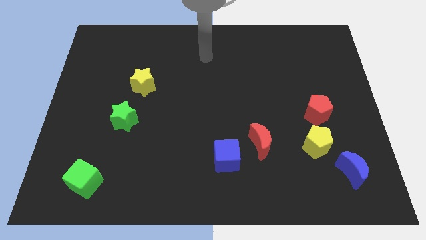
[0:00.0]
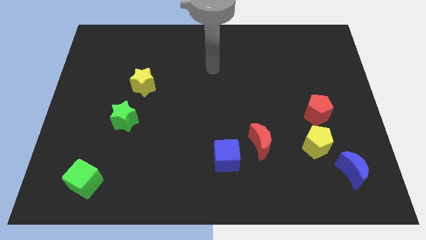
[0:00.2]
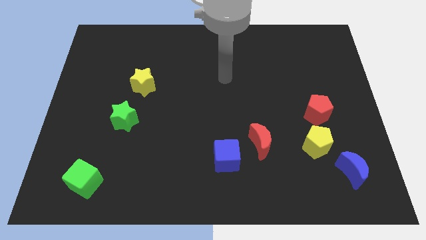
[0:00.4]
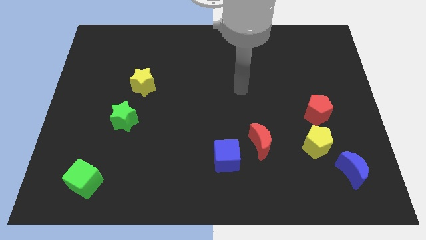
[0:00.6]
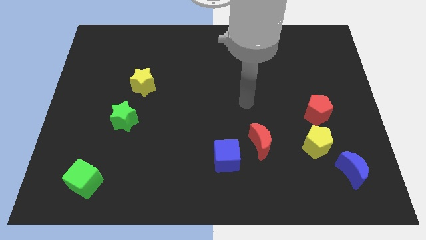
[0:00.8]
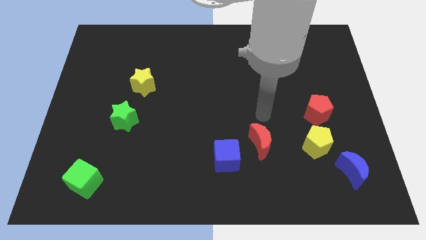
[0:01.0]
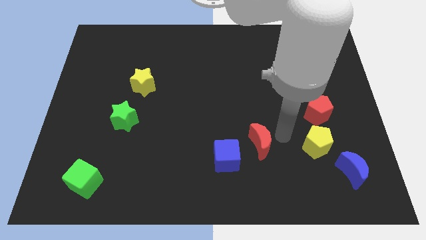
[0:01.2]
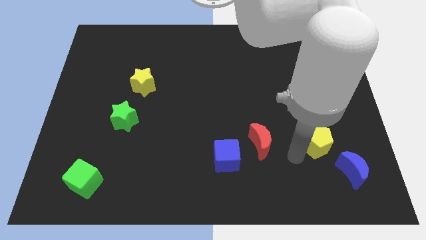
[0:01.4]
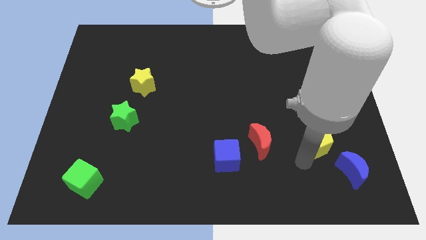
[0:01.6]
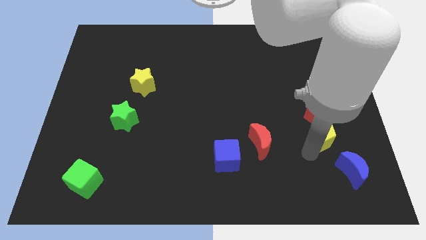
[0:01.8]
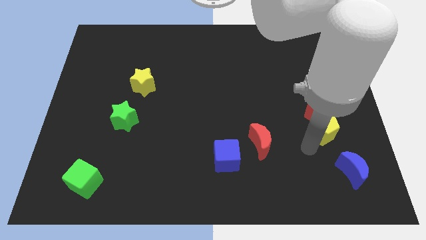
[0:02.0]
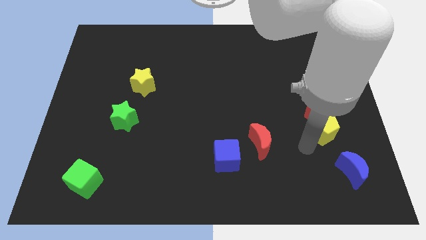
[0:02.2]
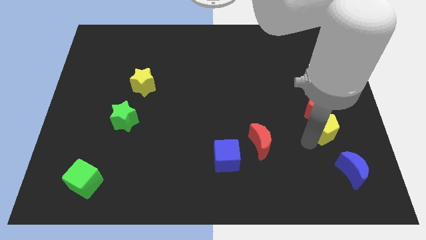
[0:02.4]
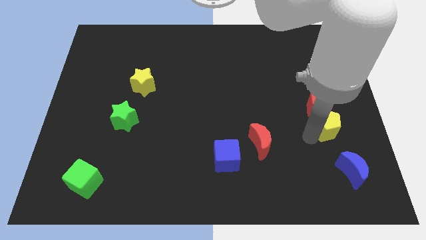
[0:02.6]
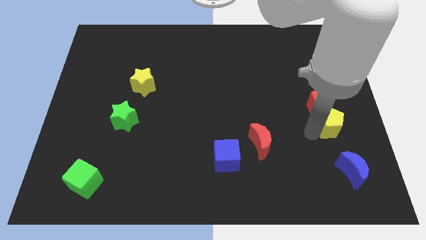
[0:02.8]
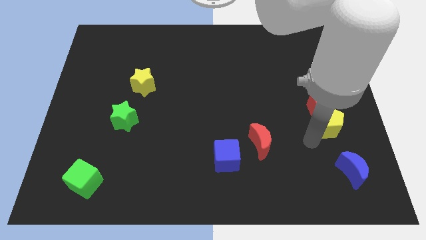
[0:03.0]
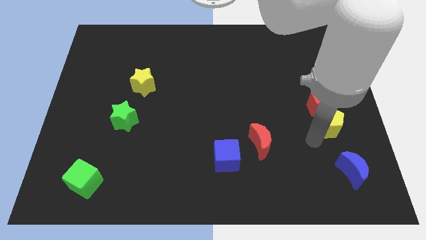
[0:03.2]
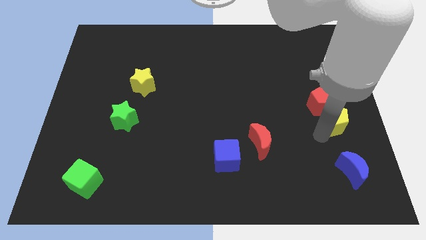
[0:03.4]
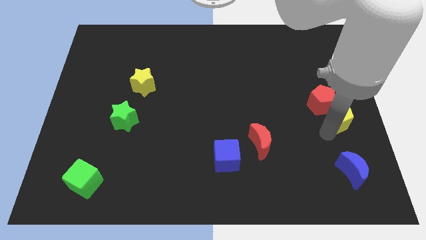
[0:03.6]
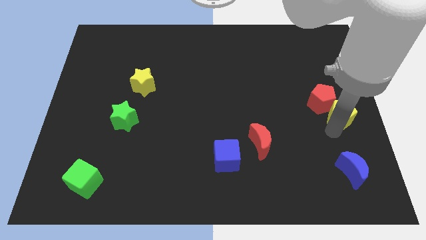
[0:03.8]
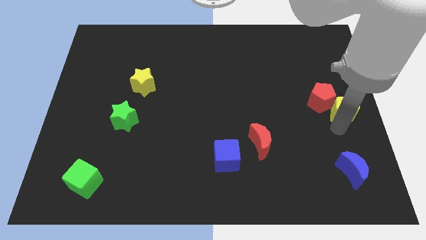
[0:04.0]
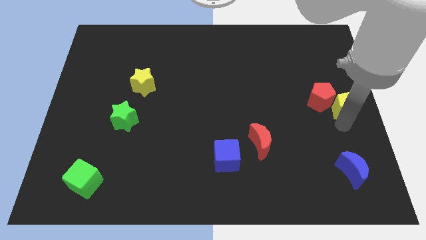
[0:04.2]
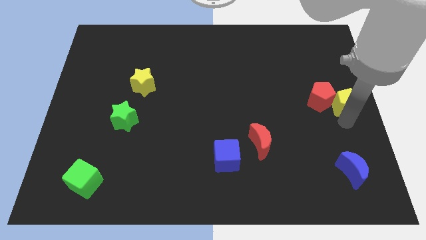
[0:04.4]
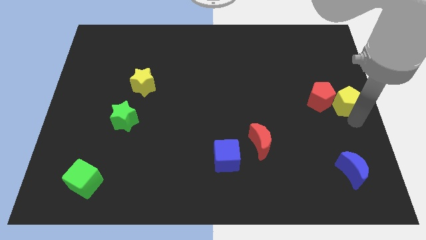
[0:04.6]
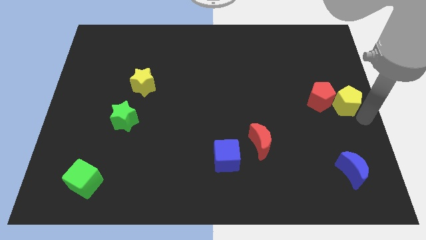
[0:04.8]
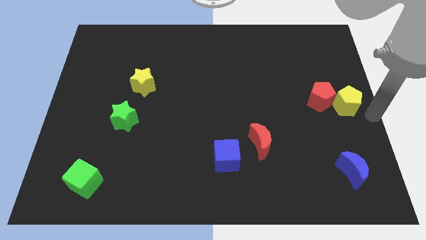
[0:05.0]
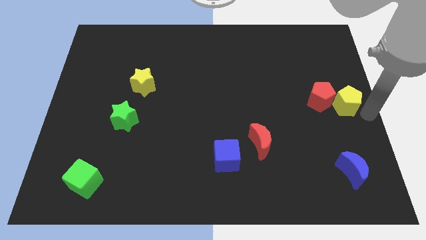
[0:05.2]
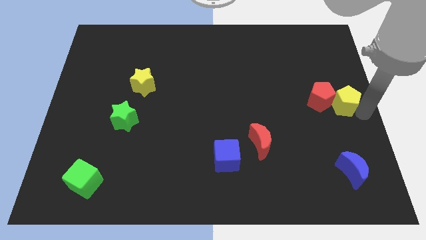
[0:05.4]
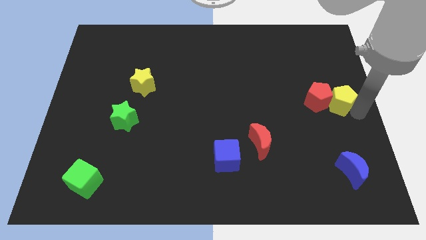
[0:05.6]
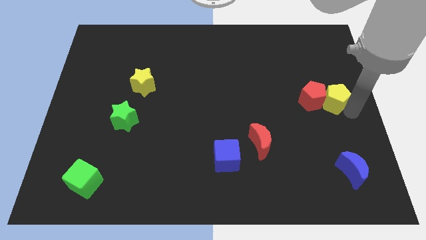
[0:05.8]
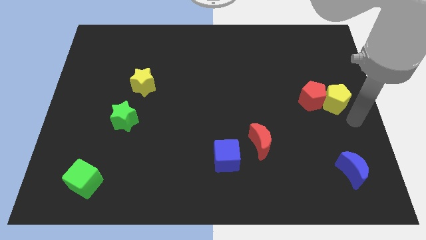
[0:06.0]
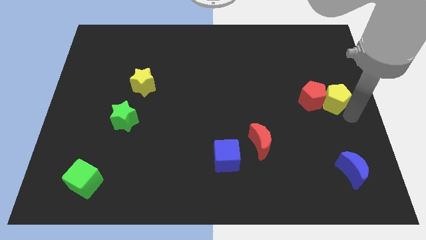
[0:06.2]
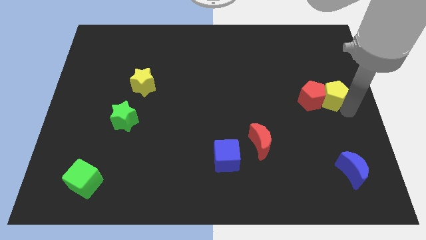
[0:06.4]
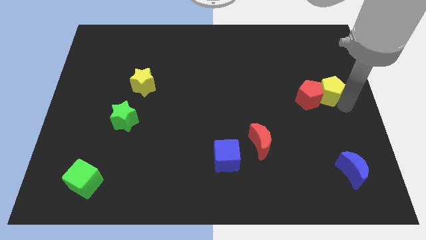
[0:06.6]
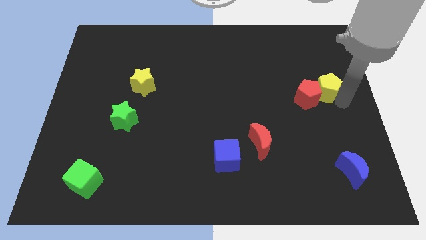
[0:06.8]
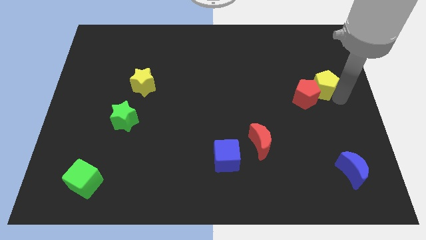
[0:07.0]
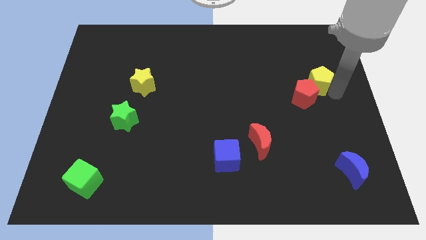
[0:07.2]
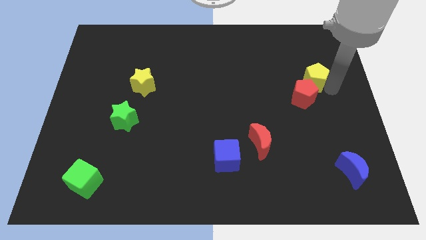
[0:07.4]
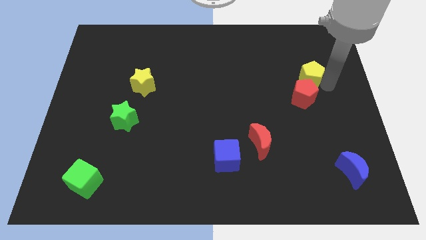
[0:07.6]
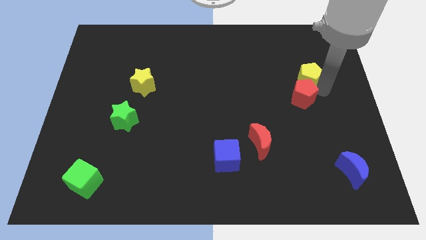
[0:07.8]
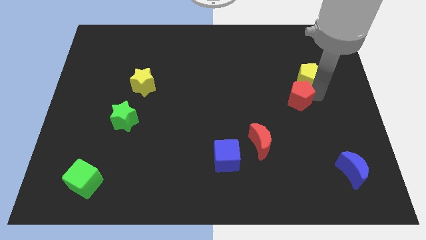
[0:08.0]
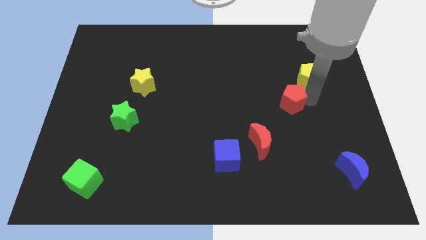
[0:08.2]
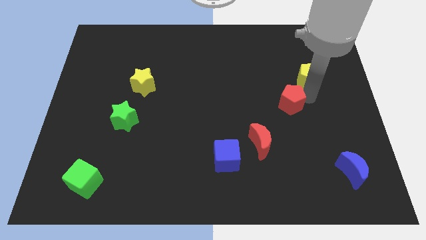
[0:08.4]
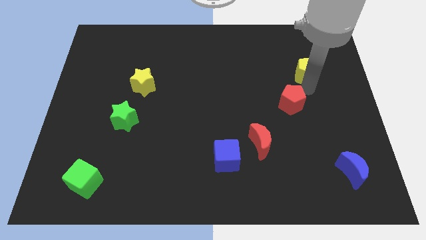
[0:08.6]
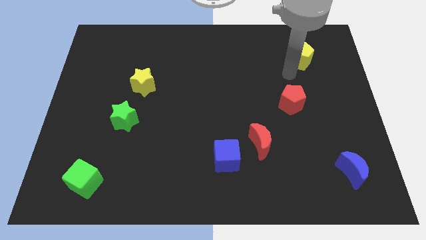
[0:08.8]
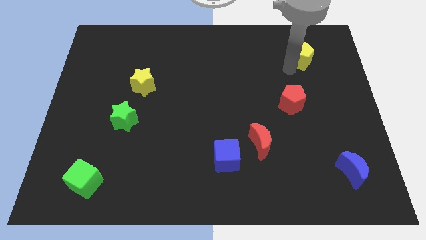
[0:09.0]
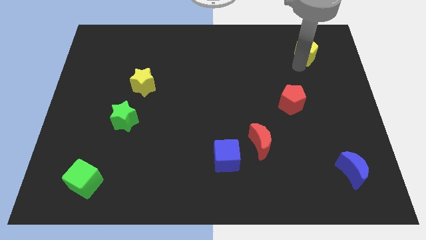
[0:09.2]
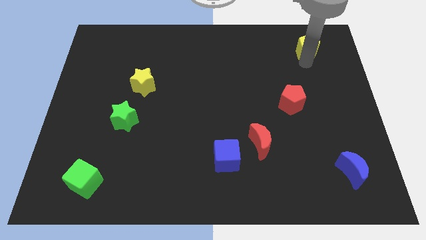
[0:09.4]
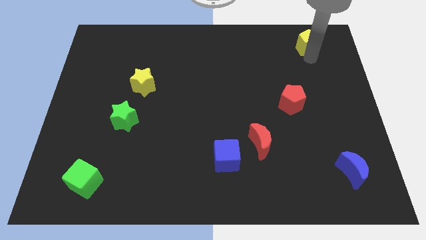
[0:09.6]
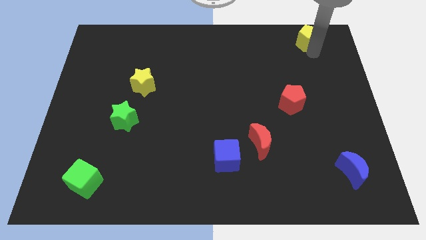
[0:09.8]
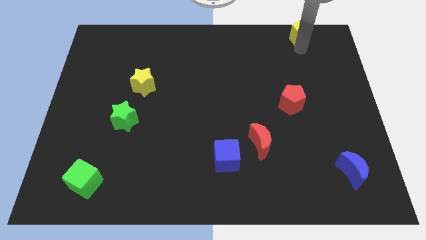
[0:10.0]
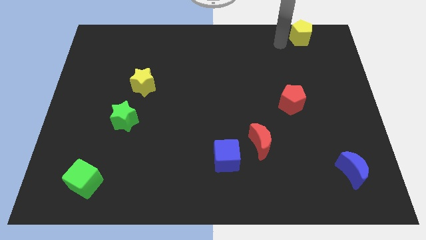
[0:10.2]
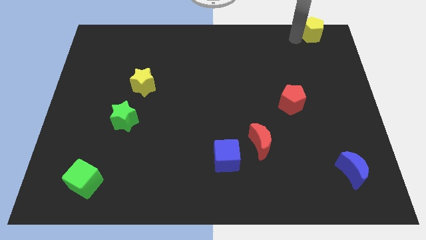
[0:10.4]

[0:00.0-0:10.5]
move the yellow pentagon to the top right

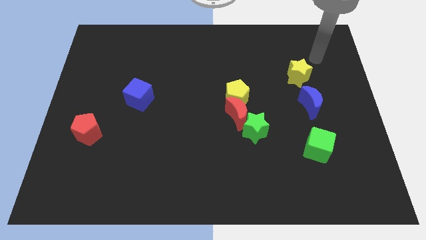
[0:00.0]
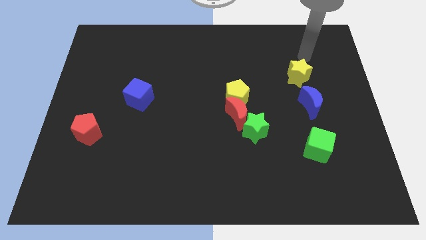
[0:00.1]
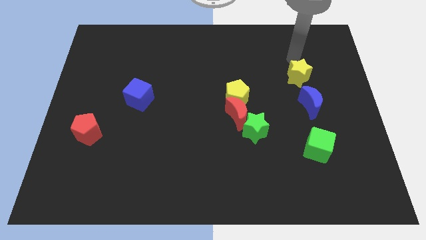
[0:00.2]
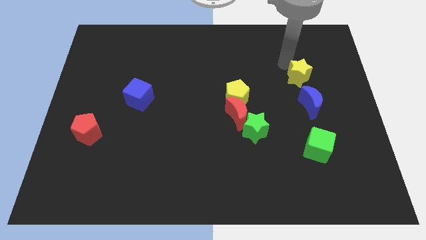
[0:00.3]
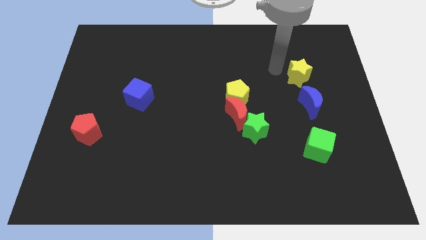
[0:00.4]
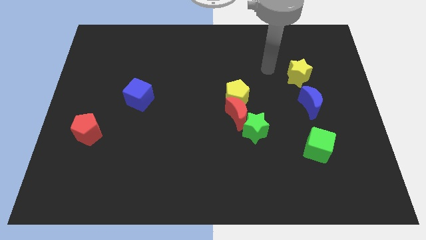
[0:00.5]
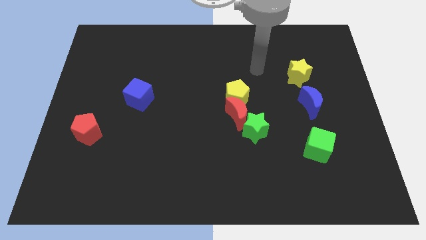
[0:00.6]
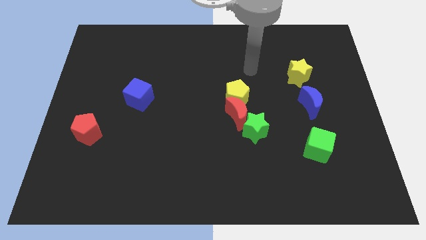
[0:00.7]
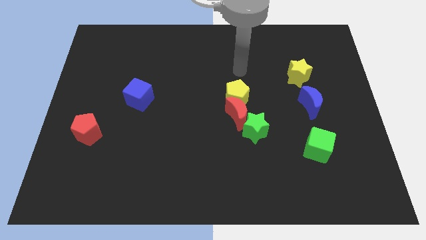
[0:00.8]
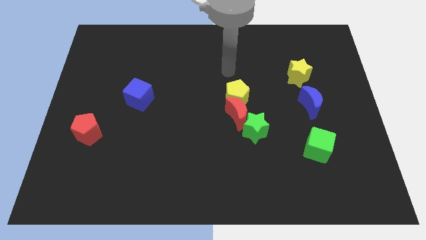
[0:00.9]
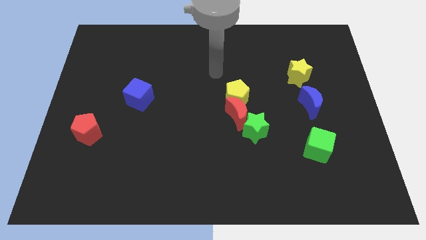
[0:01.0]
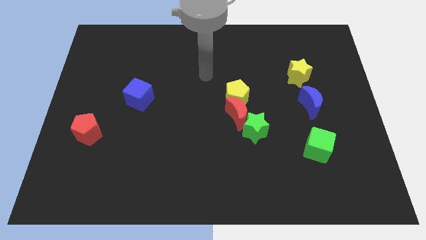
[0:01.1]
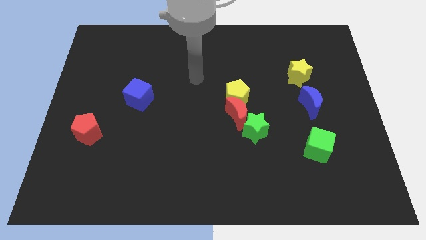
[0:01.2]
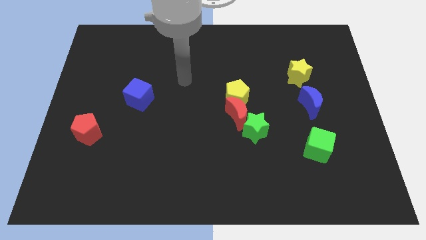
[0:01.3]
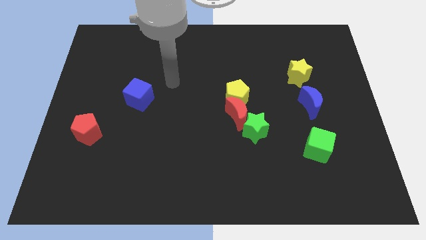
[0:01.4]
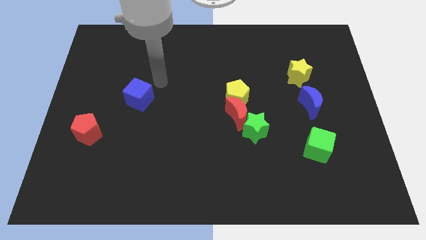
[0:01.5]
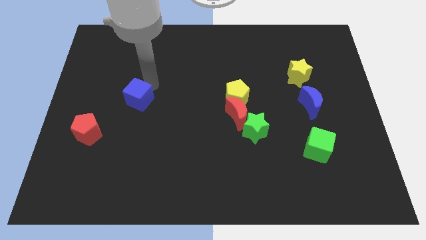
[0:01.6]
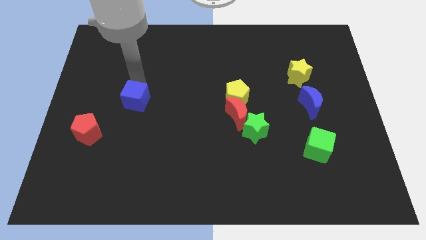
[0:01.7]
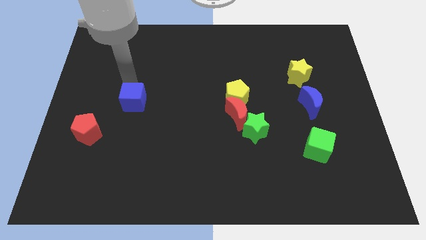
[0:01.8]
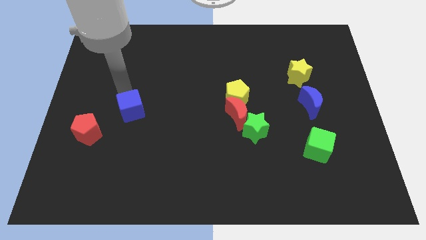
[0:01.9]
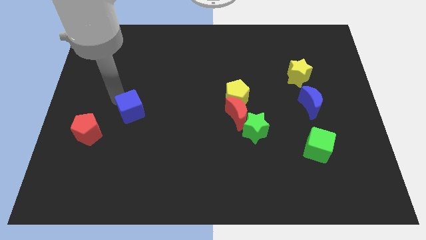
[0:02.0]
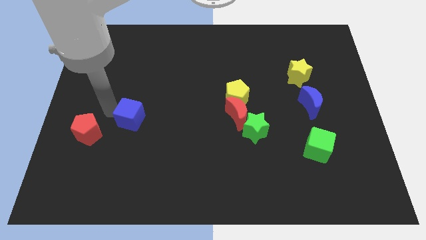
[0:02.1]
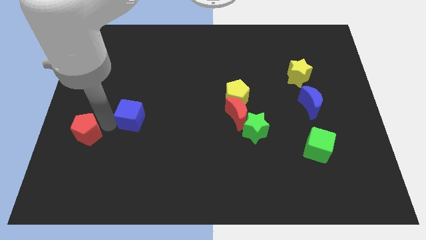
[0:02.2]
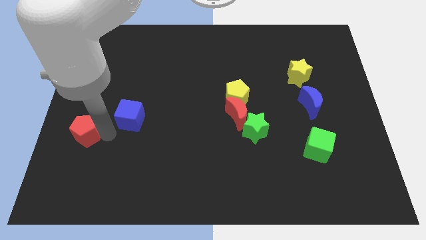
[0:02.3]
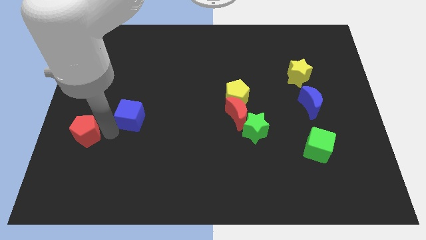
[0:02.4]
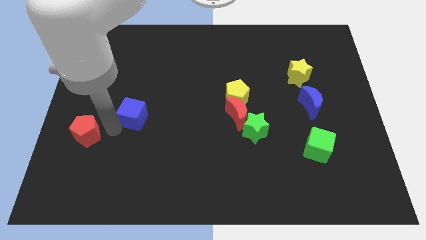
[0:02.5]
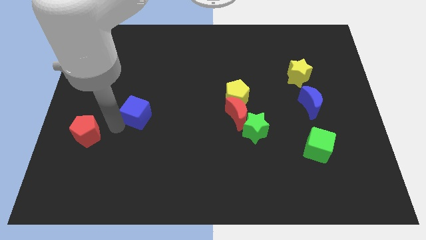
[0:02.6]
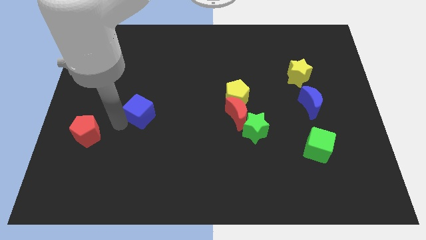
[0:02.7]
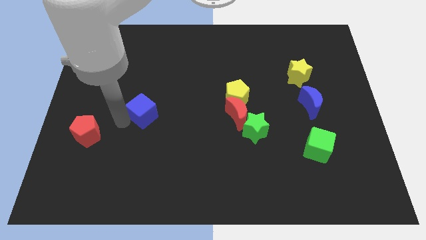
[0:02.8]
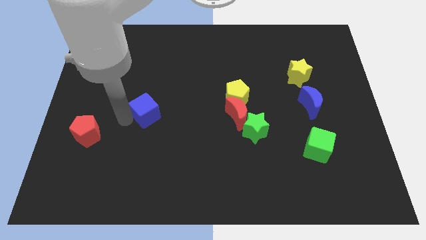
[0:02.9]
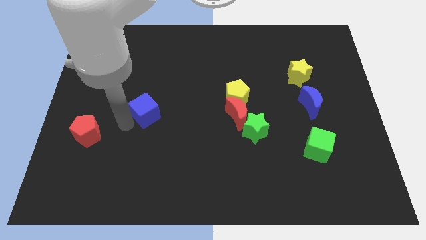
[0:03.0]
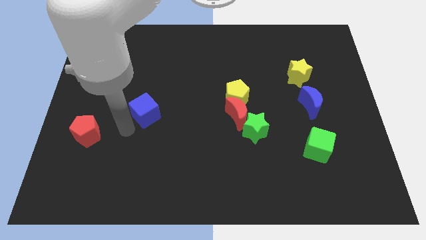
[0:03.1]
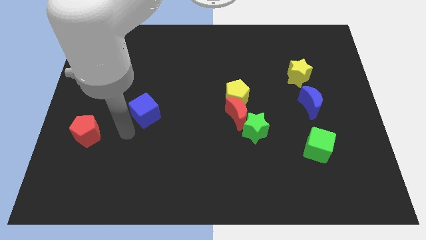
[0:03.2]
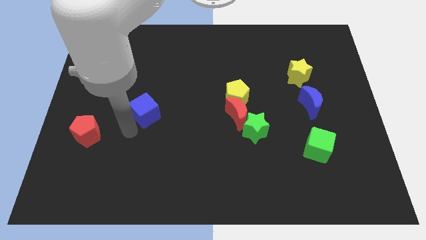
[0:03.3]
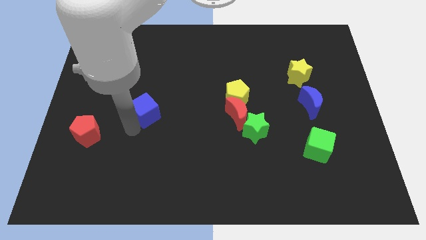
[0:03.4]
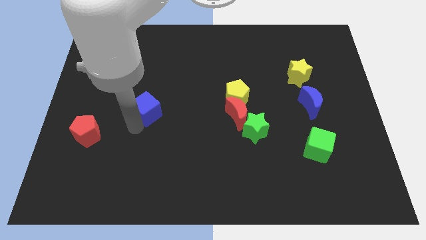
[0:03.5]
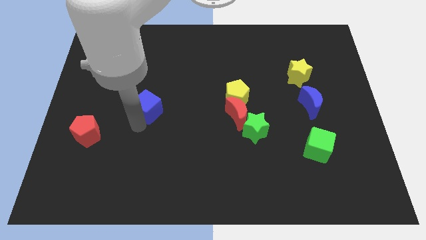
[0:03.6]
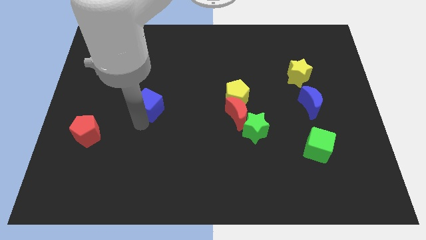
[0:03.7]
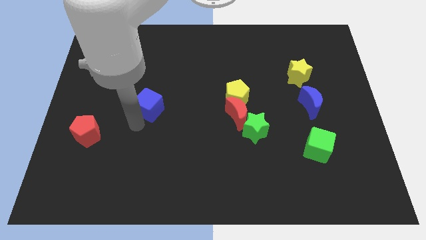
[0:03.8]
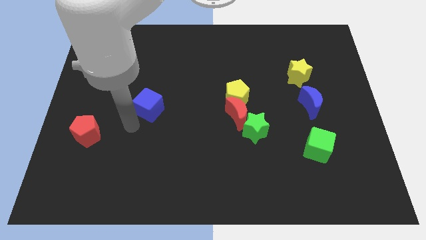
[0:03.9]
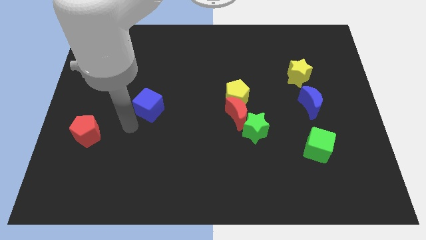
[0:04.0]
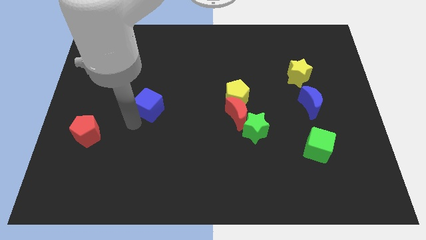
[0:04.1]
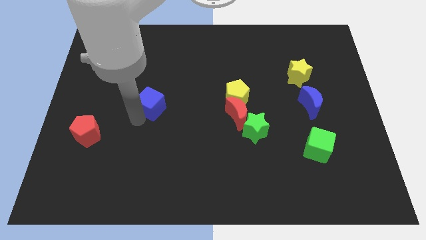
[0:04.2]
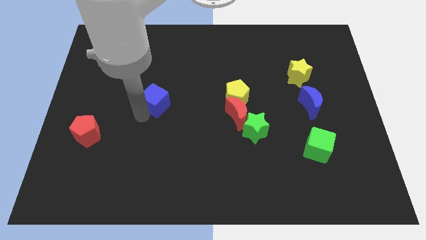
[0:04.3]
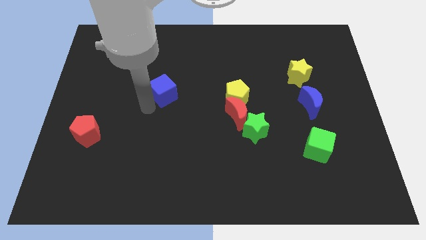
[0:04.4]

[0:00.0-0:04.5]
slide the blue cube to the middle
